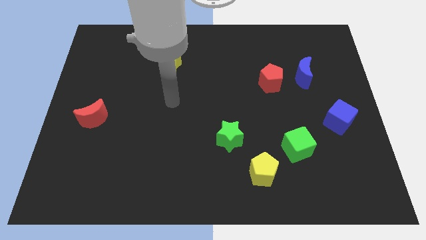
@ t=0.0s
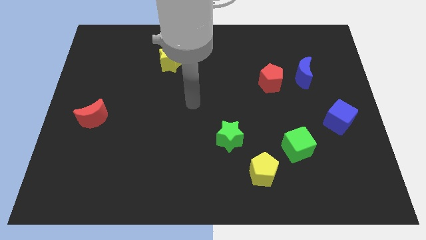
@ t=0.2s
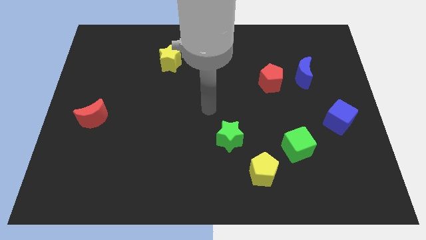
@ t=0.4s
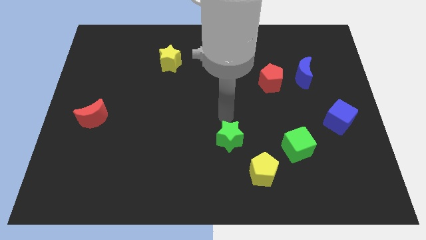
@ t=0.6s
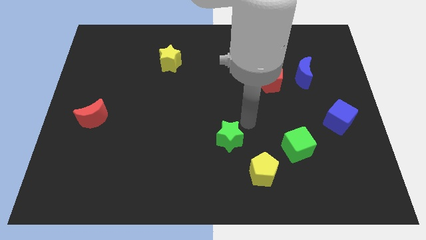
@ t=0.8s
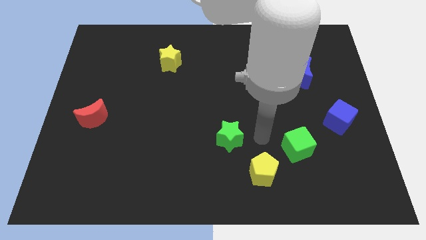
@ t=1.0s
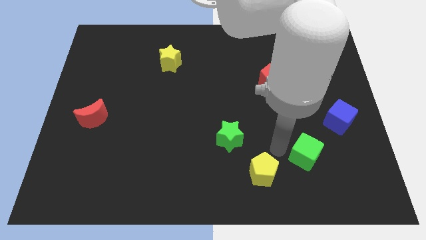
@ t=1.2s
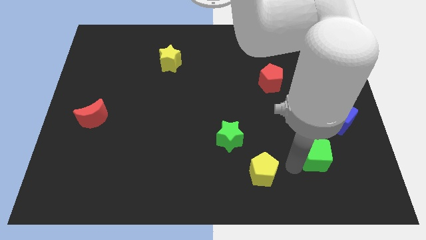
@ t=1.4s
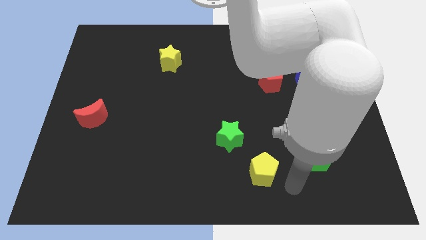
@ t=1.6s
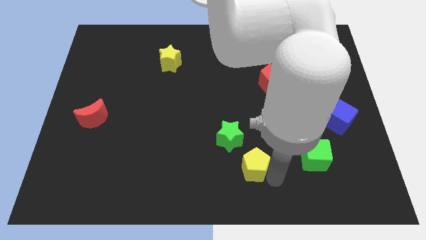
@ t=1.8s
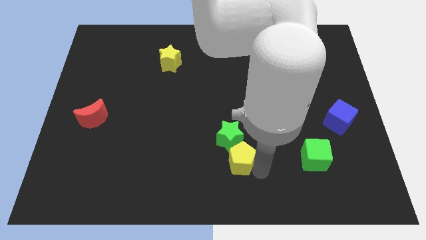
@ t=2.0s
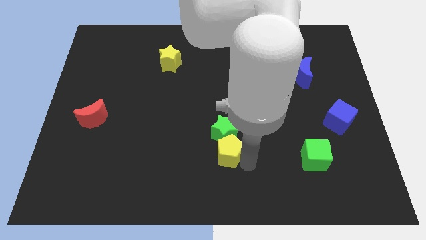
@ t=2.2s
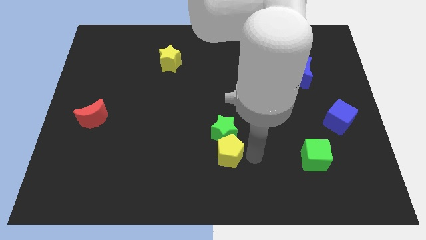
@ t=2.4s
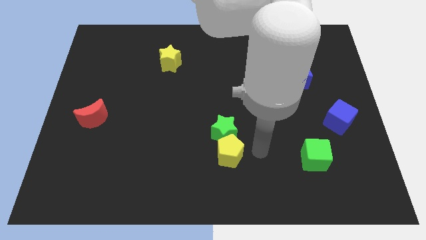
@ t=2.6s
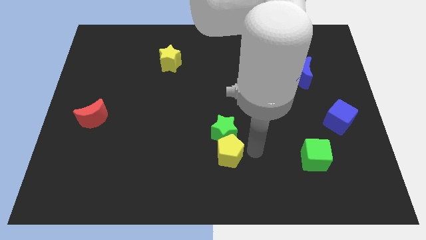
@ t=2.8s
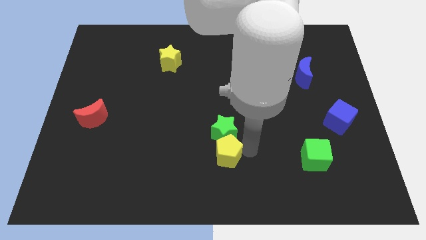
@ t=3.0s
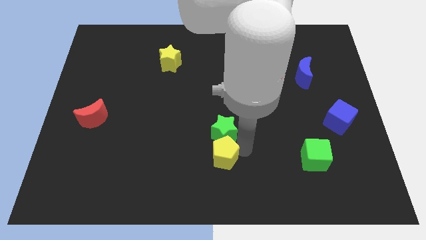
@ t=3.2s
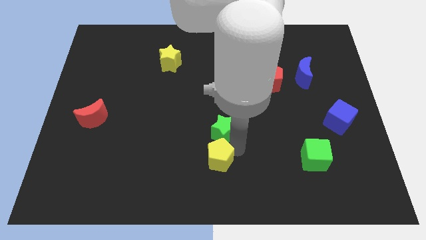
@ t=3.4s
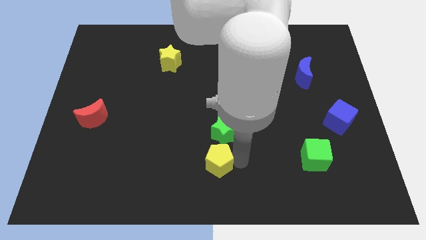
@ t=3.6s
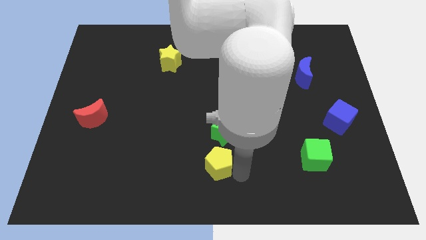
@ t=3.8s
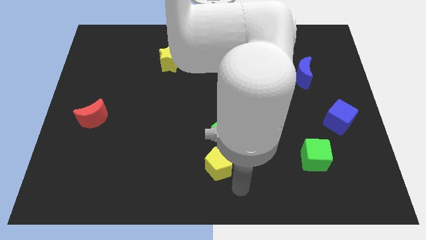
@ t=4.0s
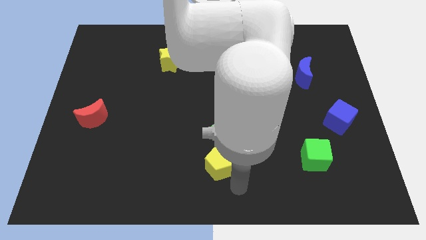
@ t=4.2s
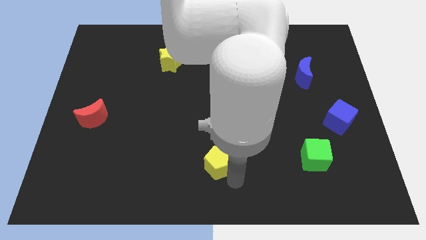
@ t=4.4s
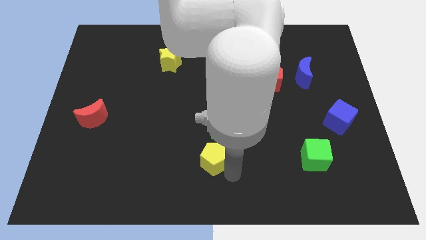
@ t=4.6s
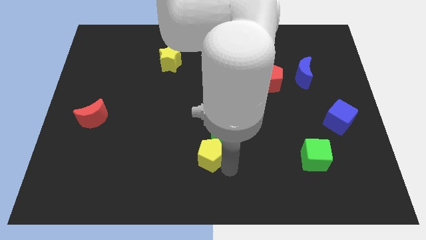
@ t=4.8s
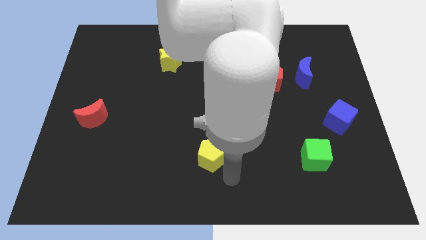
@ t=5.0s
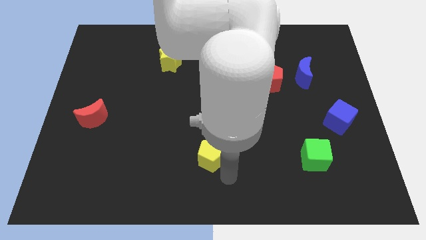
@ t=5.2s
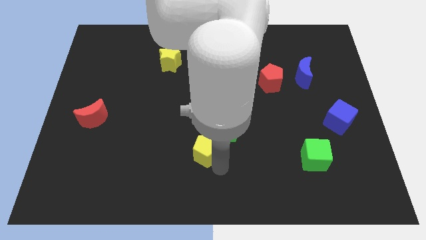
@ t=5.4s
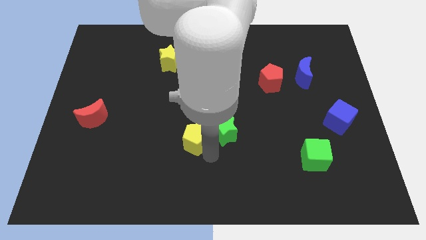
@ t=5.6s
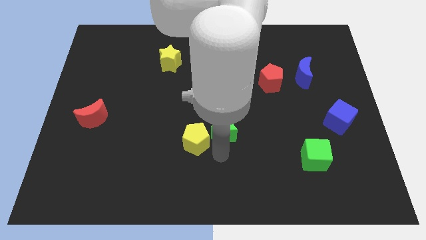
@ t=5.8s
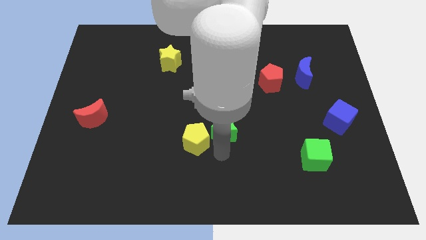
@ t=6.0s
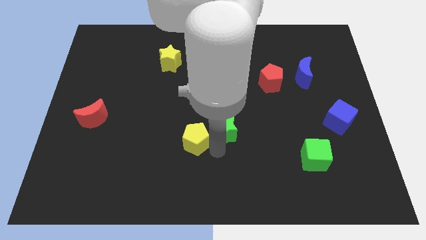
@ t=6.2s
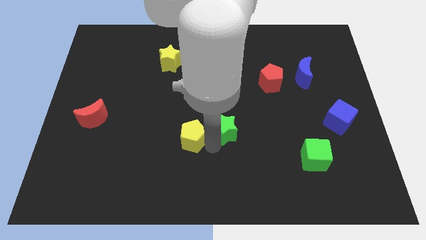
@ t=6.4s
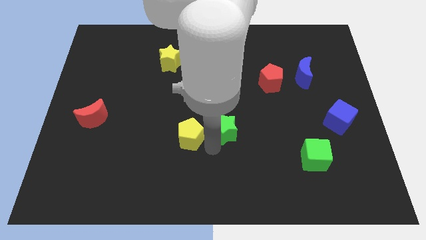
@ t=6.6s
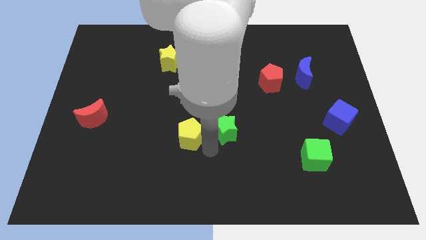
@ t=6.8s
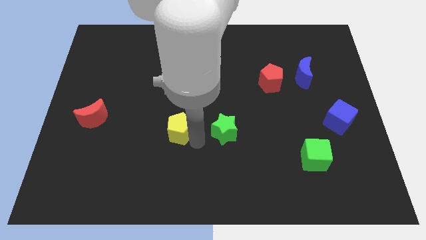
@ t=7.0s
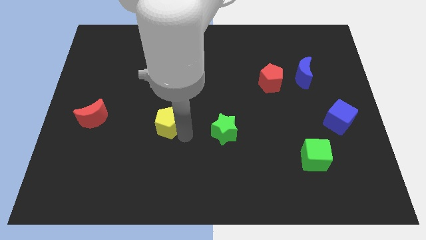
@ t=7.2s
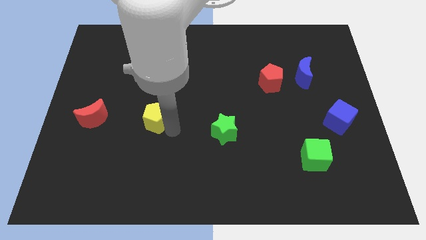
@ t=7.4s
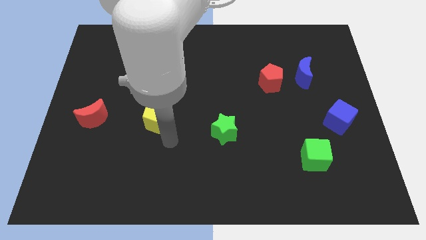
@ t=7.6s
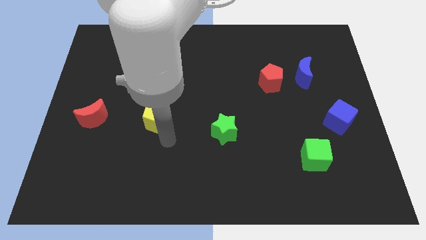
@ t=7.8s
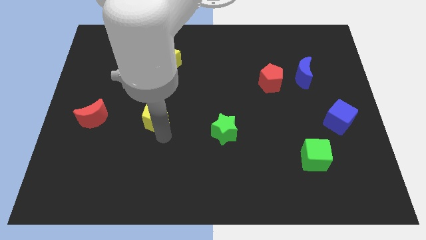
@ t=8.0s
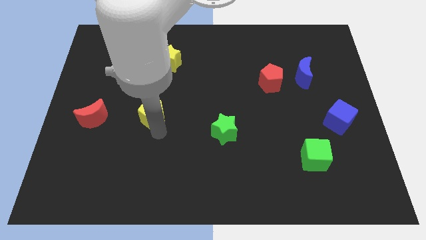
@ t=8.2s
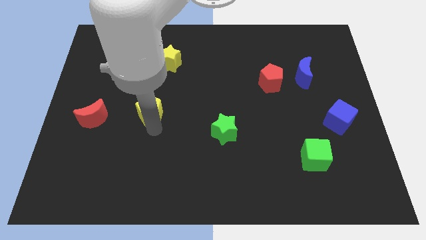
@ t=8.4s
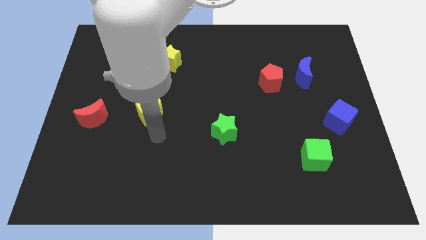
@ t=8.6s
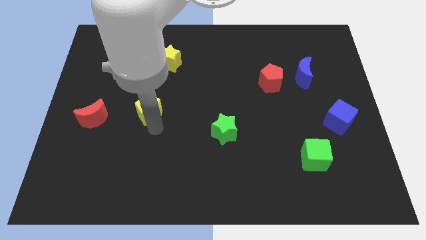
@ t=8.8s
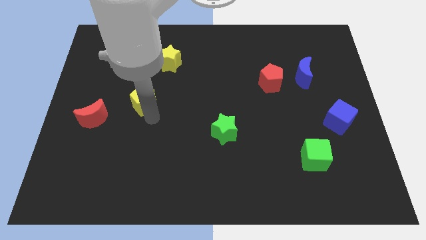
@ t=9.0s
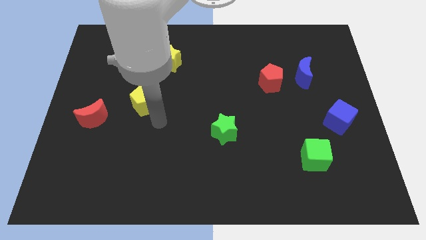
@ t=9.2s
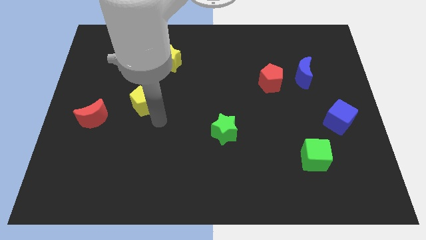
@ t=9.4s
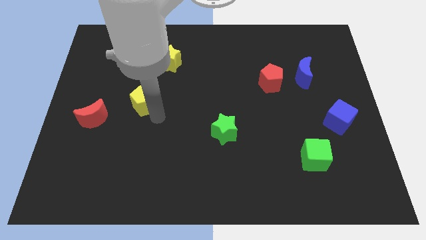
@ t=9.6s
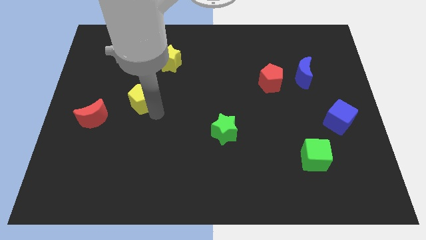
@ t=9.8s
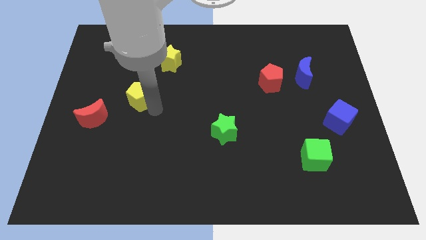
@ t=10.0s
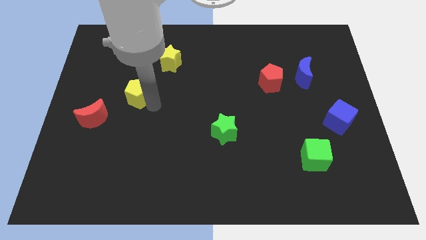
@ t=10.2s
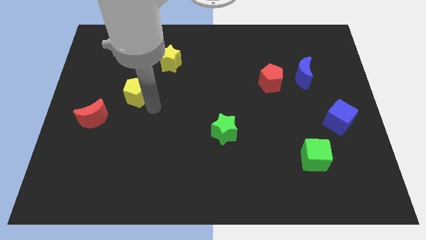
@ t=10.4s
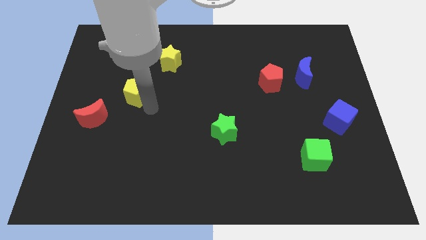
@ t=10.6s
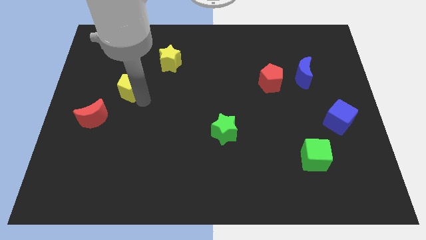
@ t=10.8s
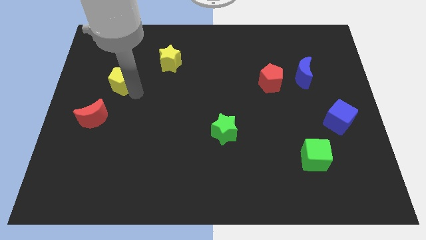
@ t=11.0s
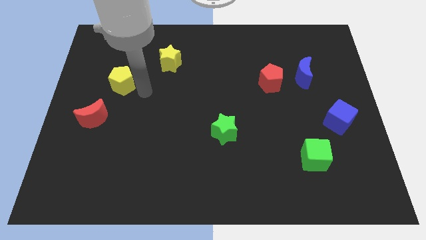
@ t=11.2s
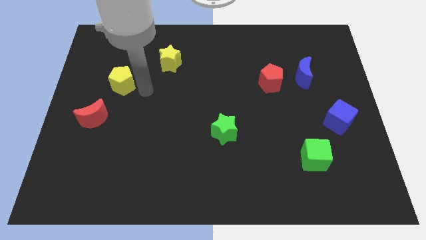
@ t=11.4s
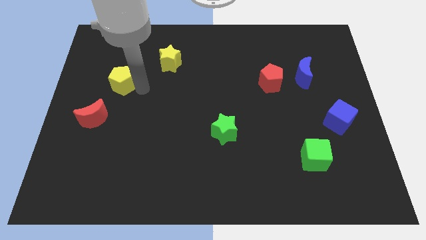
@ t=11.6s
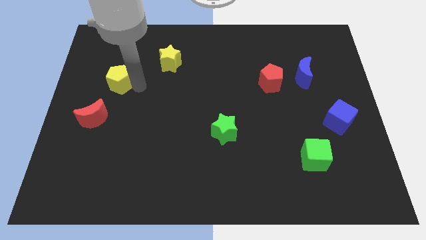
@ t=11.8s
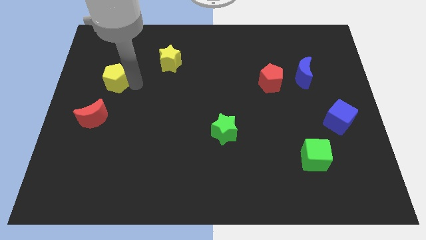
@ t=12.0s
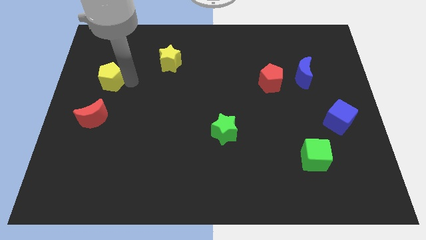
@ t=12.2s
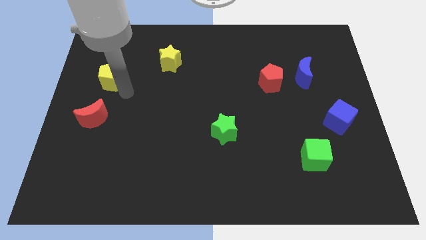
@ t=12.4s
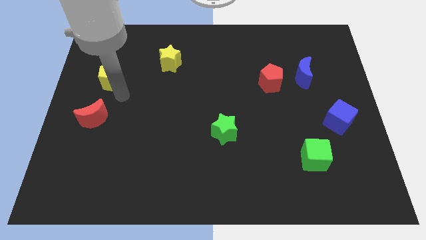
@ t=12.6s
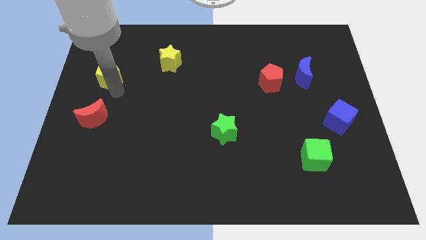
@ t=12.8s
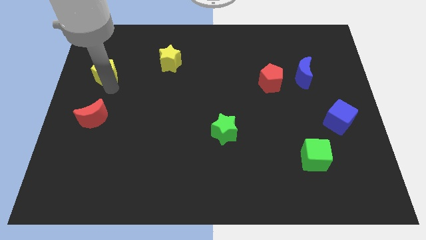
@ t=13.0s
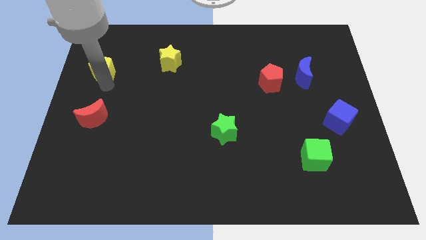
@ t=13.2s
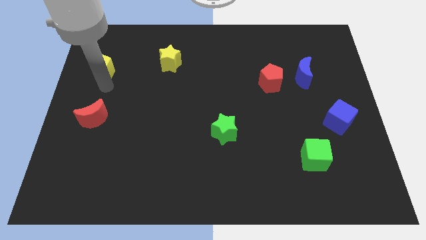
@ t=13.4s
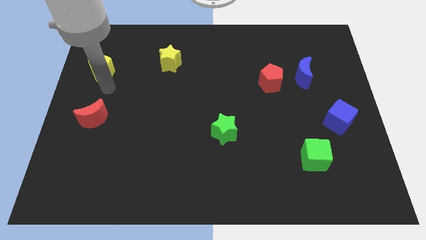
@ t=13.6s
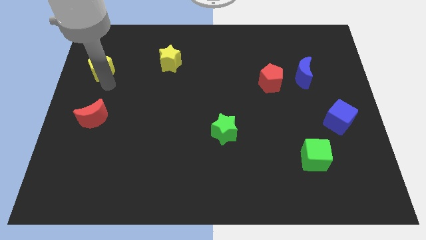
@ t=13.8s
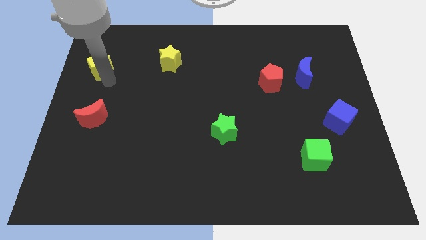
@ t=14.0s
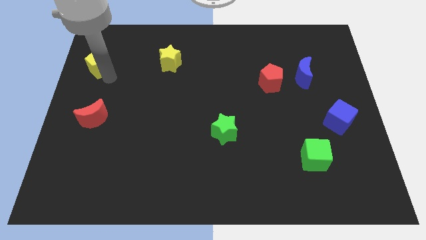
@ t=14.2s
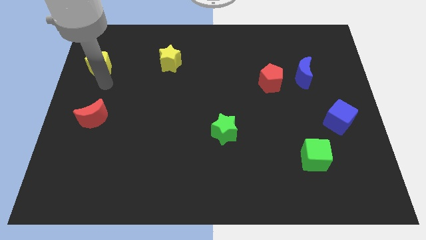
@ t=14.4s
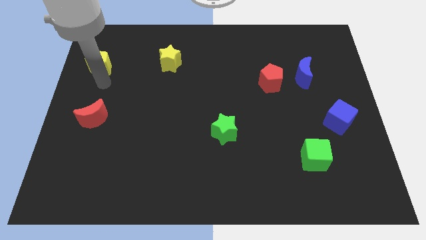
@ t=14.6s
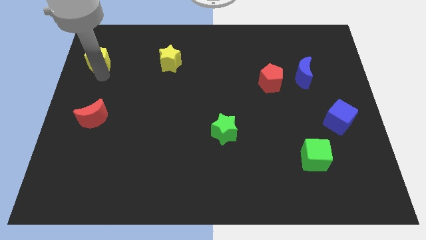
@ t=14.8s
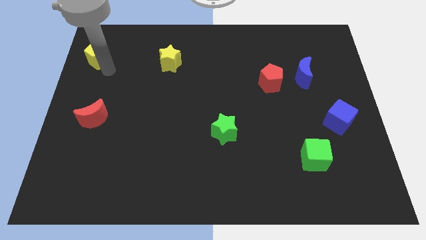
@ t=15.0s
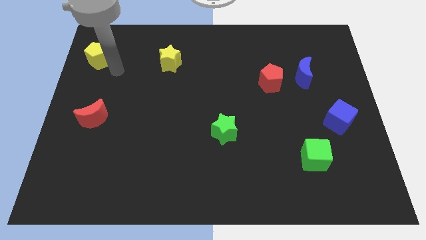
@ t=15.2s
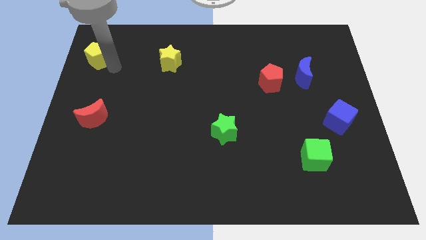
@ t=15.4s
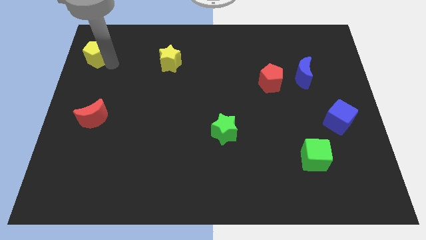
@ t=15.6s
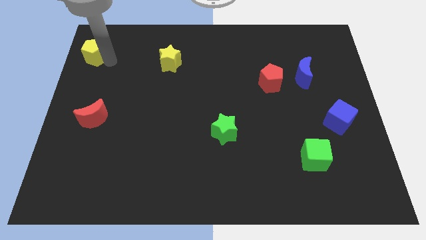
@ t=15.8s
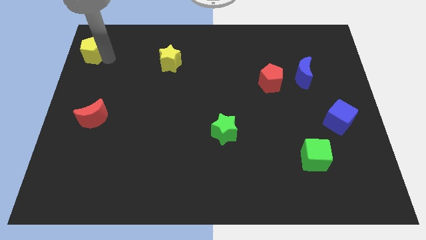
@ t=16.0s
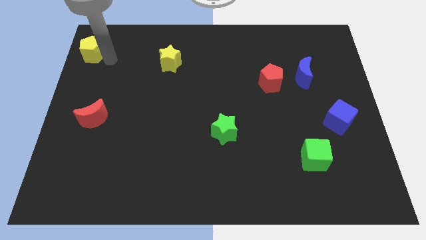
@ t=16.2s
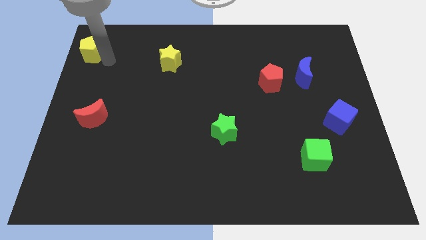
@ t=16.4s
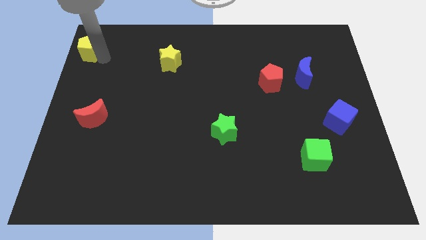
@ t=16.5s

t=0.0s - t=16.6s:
push the yellow pentagon to the top left
